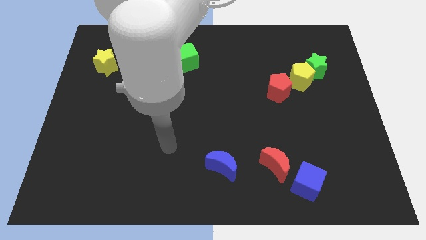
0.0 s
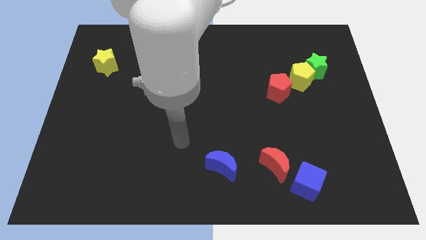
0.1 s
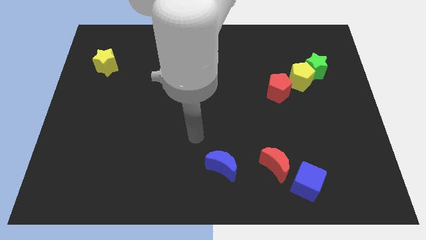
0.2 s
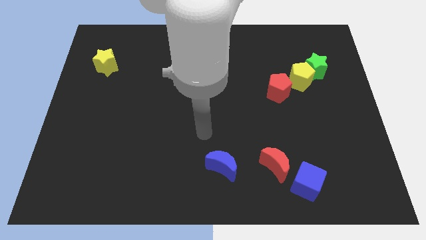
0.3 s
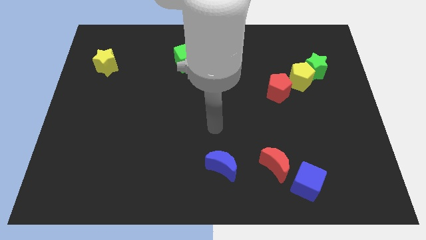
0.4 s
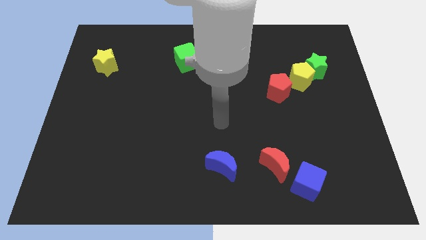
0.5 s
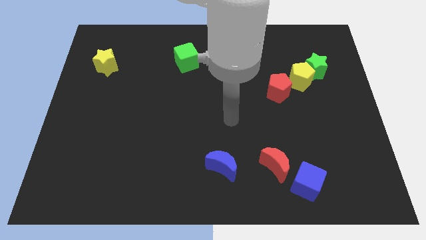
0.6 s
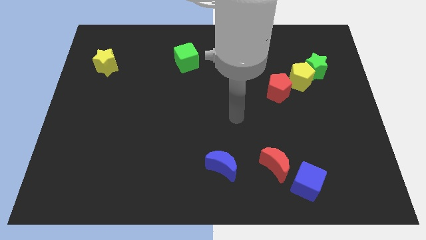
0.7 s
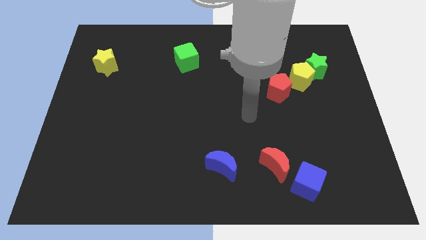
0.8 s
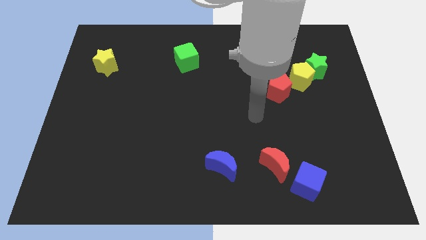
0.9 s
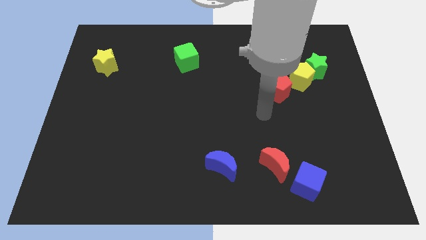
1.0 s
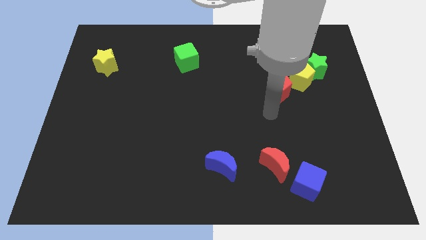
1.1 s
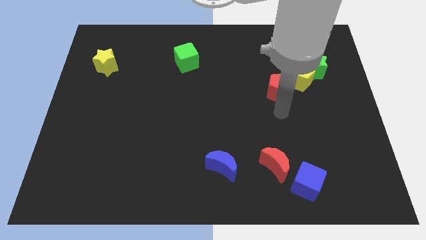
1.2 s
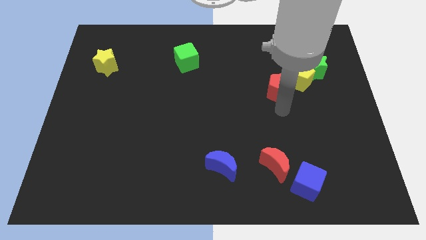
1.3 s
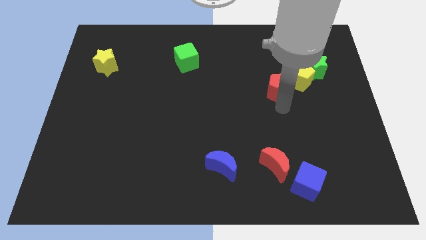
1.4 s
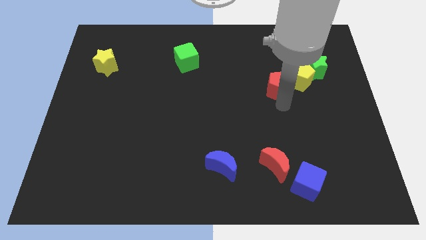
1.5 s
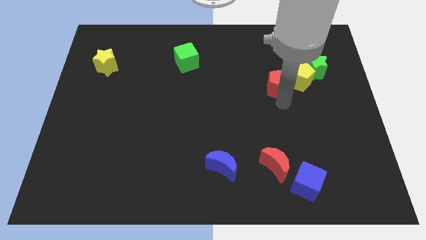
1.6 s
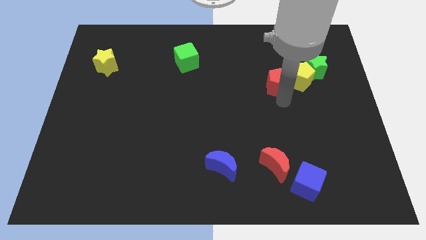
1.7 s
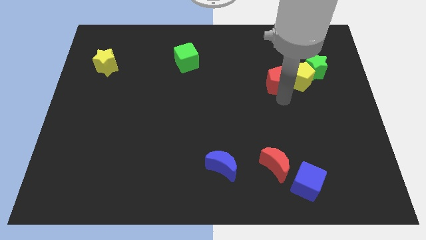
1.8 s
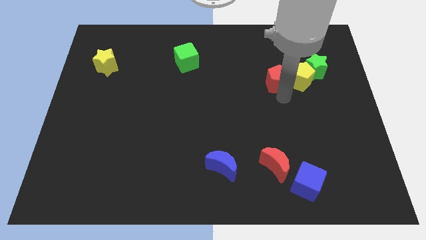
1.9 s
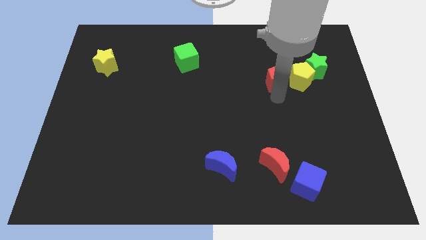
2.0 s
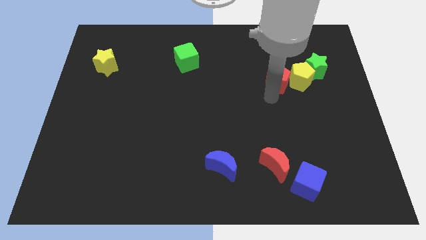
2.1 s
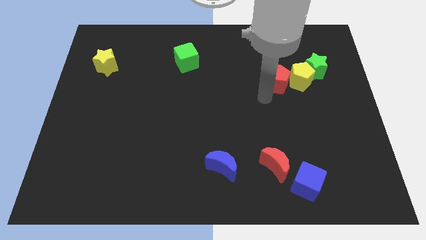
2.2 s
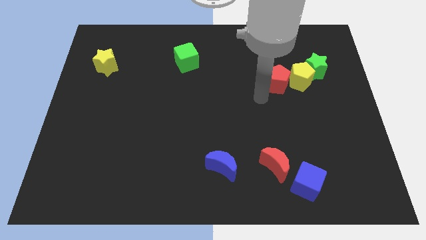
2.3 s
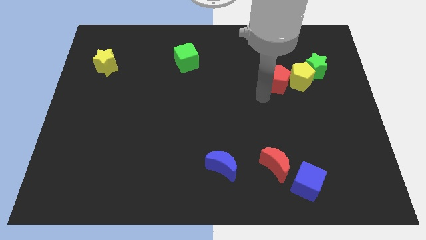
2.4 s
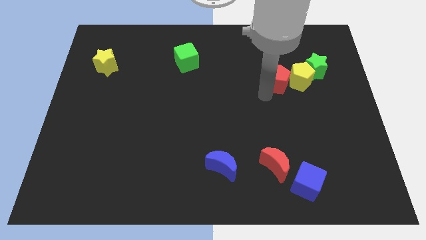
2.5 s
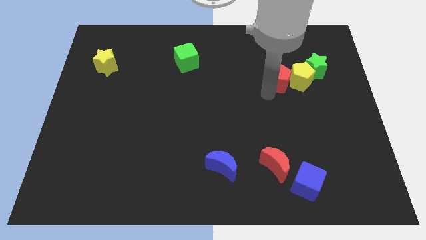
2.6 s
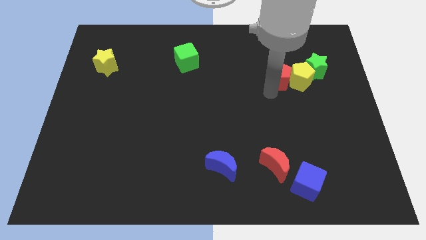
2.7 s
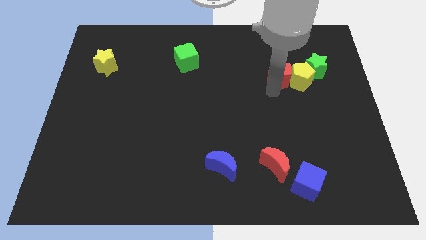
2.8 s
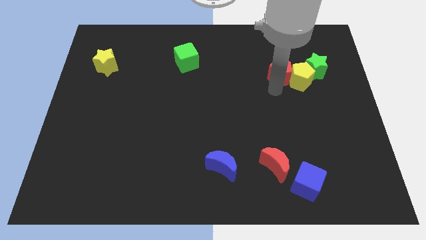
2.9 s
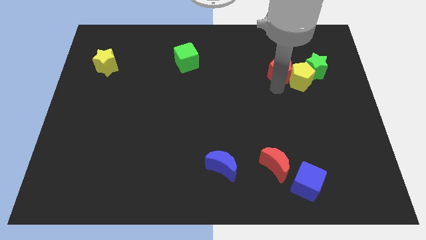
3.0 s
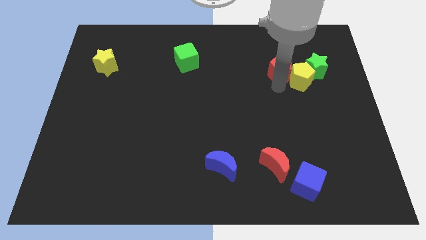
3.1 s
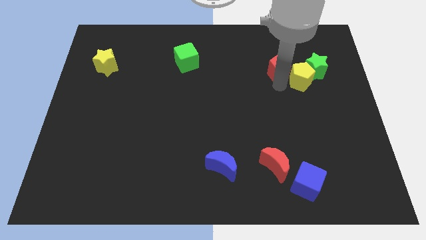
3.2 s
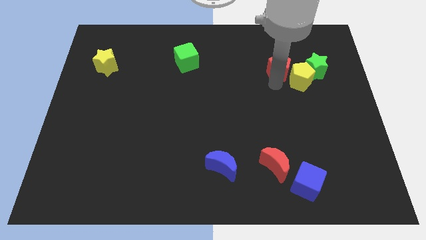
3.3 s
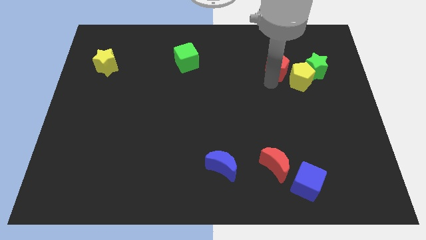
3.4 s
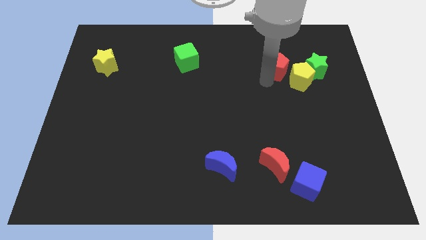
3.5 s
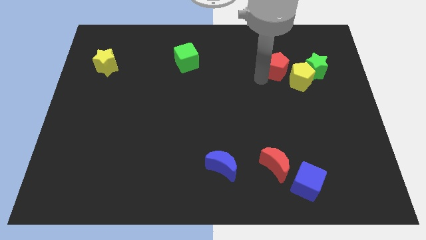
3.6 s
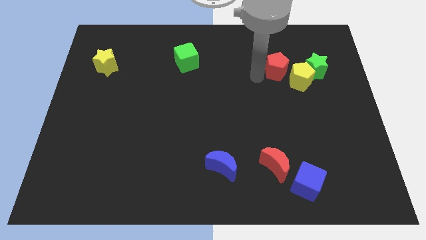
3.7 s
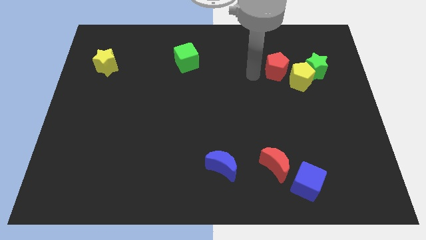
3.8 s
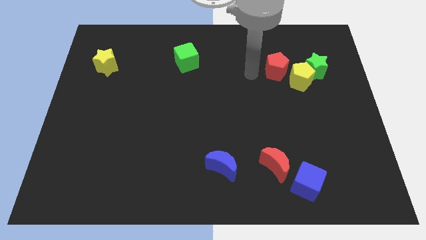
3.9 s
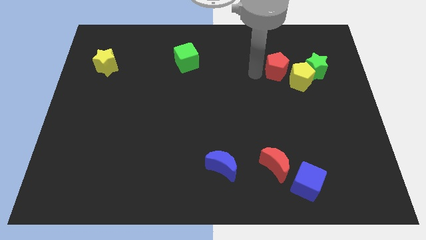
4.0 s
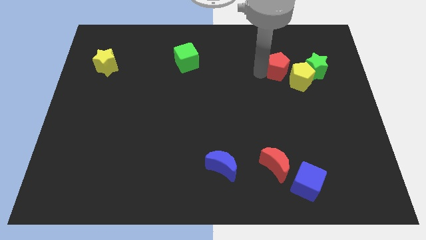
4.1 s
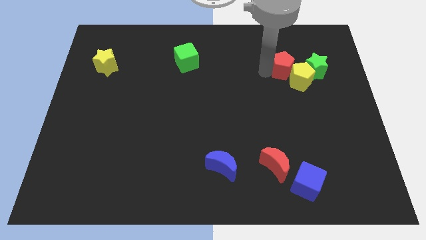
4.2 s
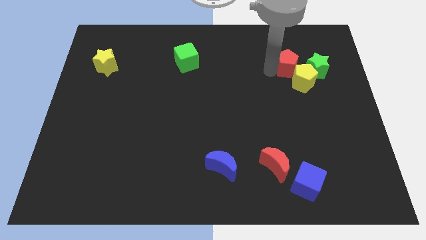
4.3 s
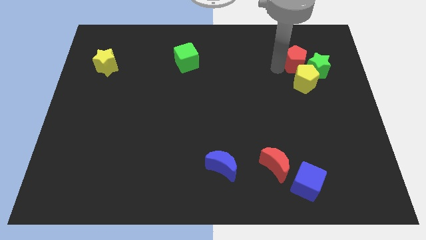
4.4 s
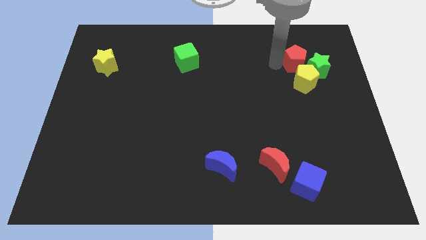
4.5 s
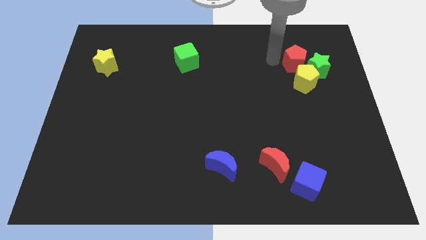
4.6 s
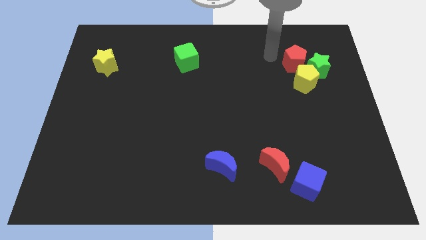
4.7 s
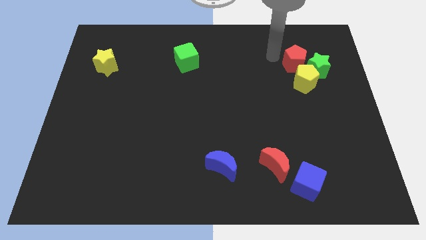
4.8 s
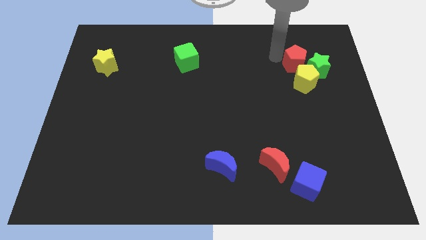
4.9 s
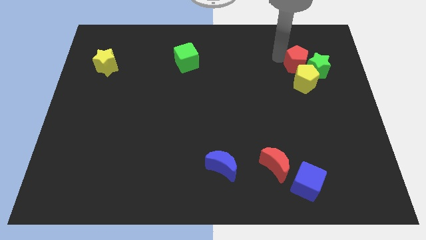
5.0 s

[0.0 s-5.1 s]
put the red pentagon next to the green star

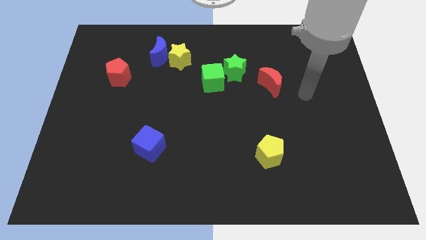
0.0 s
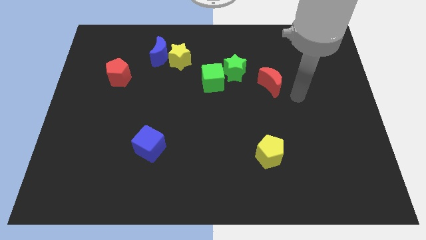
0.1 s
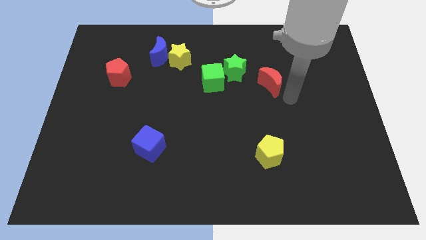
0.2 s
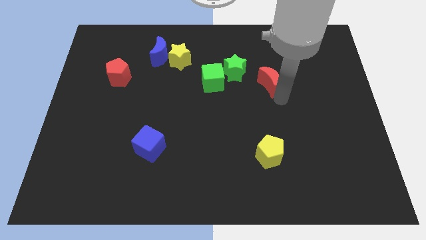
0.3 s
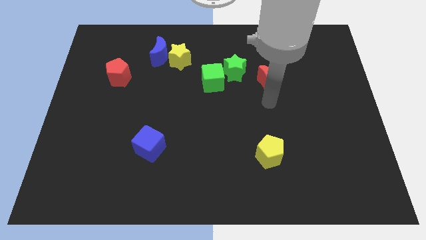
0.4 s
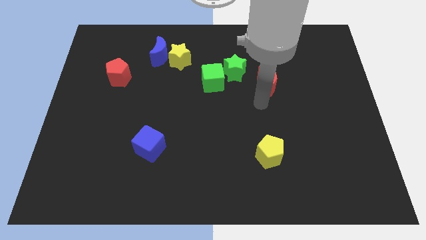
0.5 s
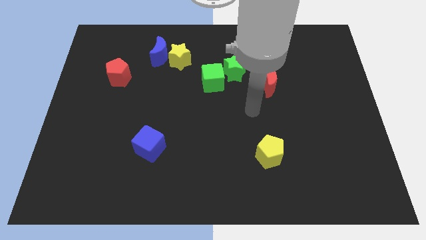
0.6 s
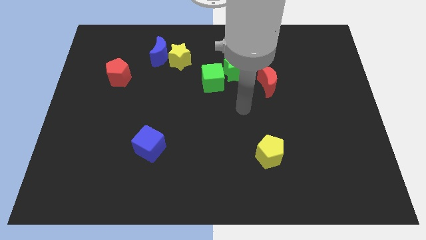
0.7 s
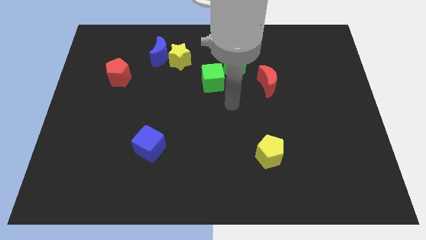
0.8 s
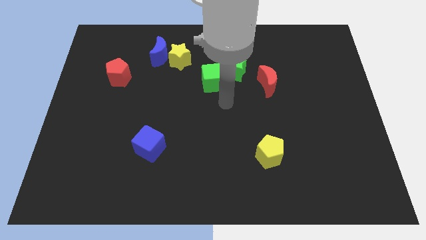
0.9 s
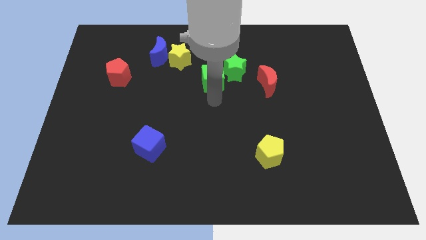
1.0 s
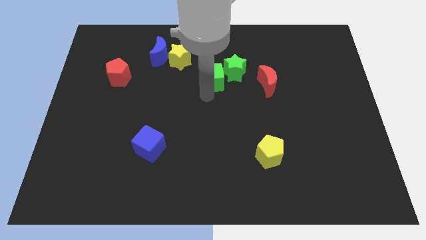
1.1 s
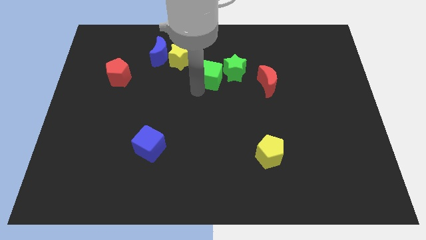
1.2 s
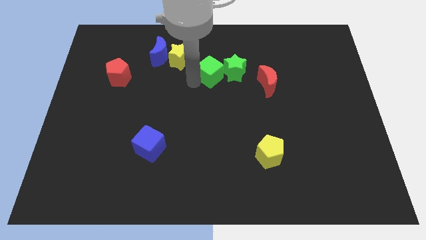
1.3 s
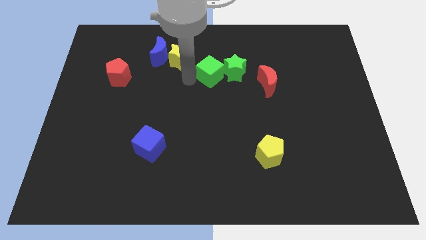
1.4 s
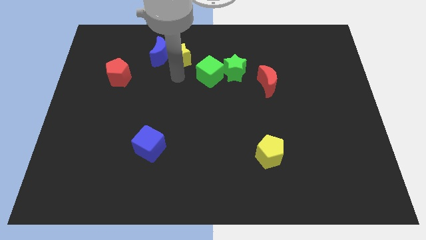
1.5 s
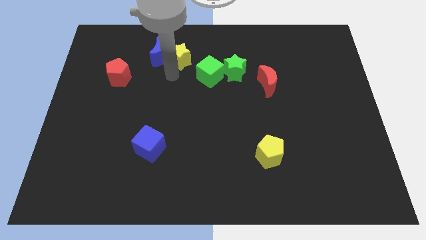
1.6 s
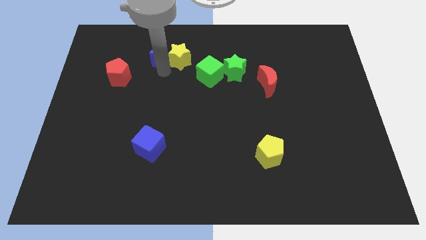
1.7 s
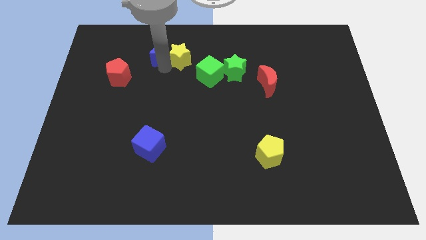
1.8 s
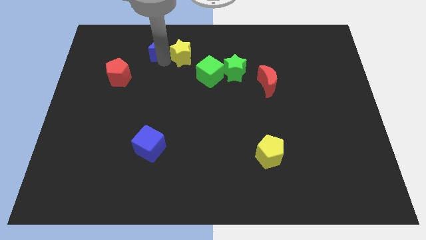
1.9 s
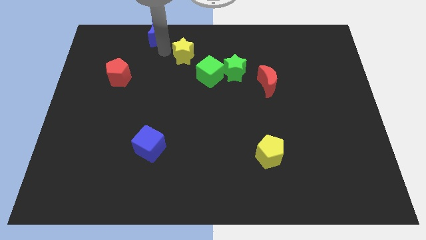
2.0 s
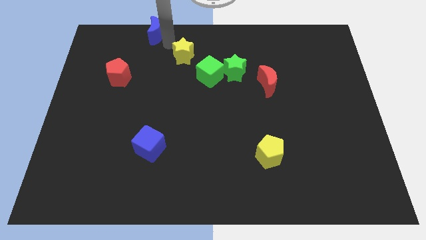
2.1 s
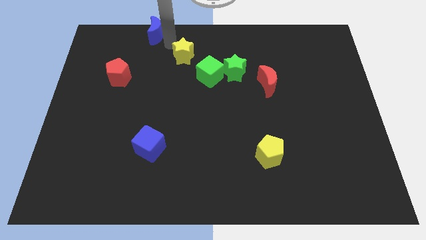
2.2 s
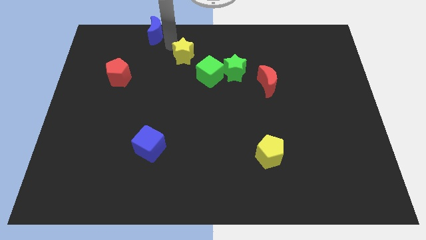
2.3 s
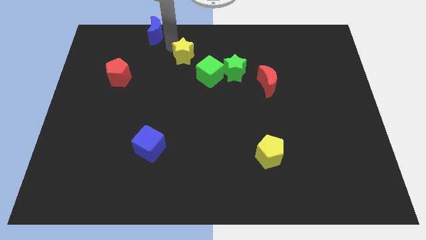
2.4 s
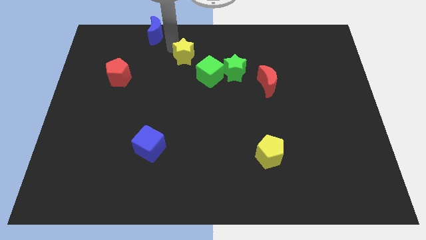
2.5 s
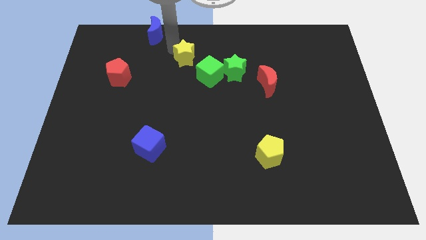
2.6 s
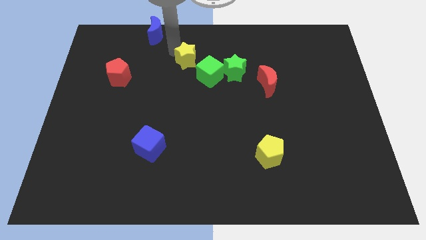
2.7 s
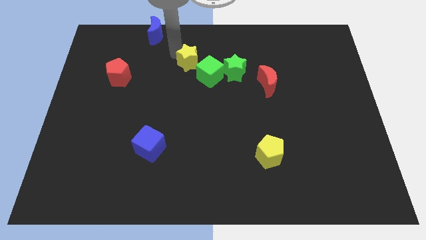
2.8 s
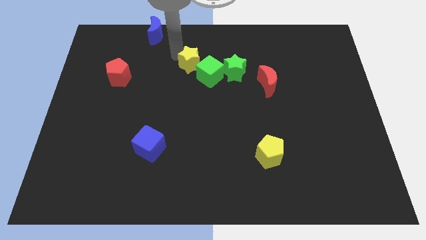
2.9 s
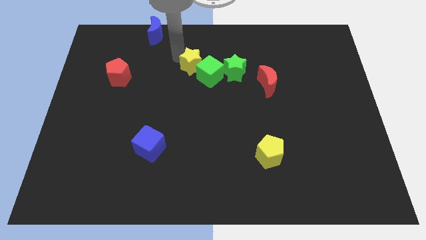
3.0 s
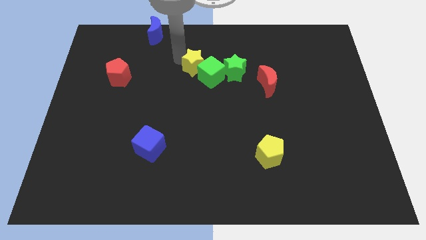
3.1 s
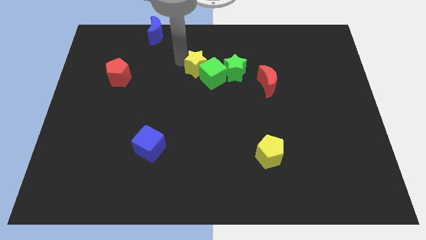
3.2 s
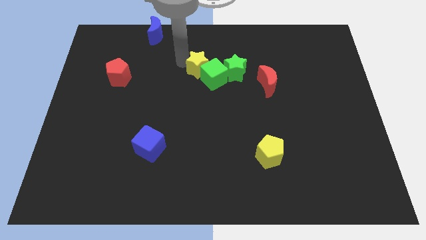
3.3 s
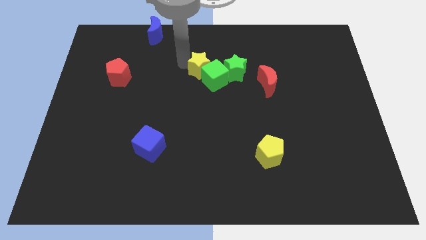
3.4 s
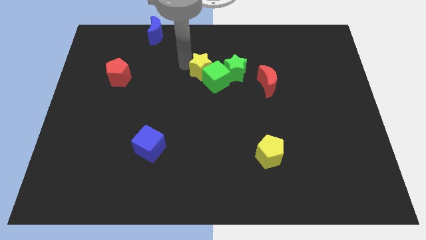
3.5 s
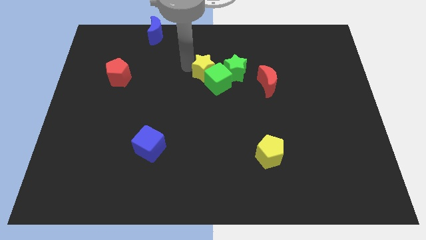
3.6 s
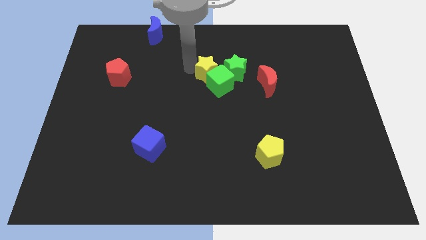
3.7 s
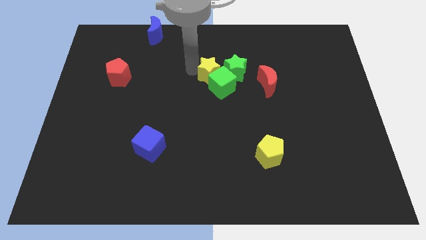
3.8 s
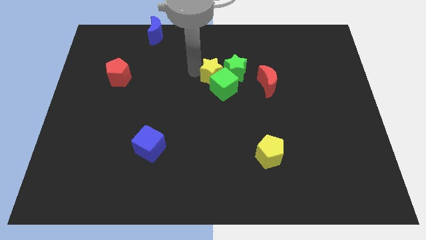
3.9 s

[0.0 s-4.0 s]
put the yellow star to the green star
